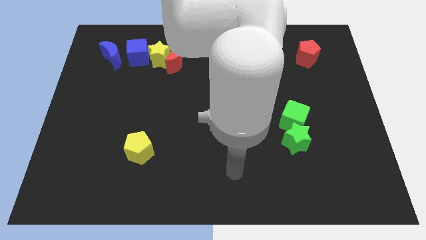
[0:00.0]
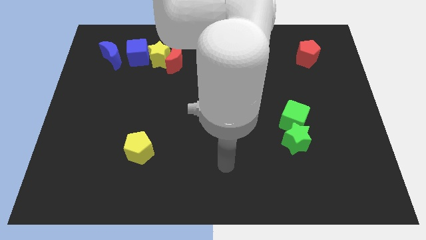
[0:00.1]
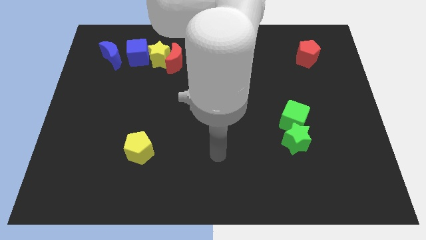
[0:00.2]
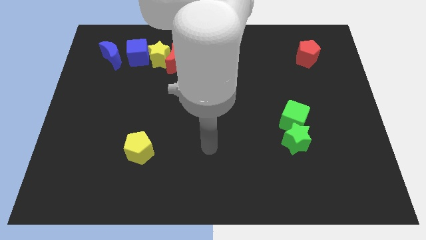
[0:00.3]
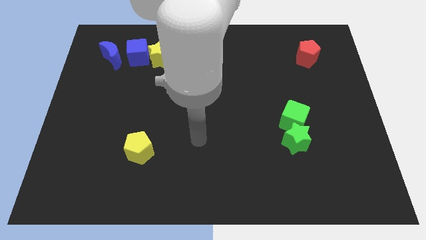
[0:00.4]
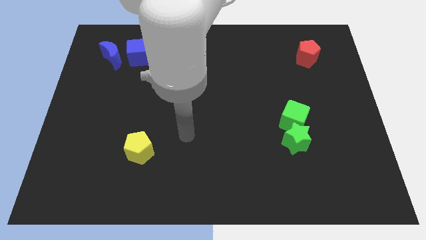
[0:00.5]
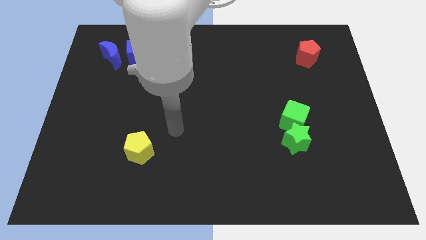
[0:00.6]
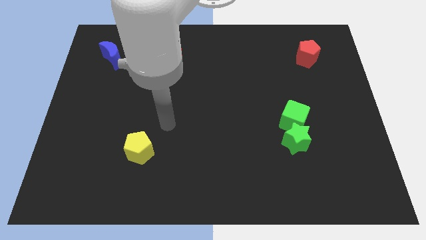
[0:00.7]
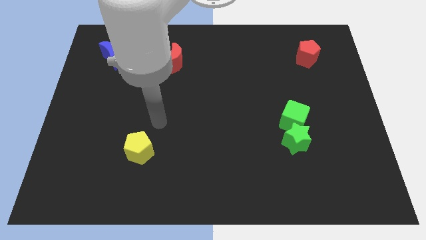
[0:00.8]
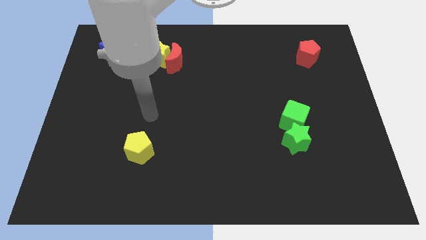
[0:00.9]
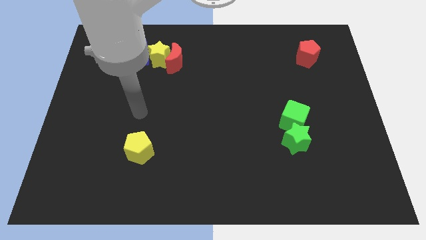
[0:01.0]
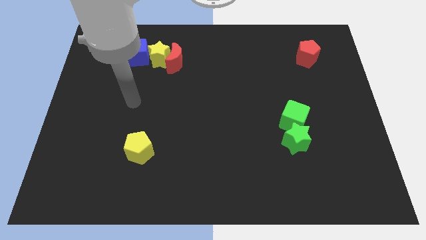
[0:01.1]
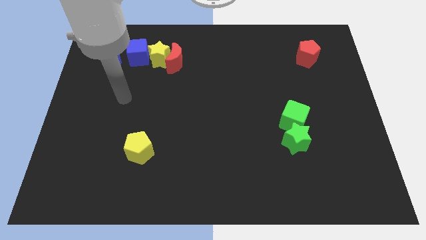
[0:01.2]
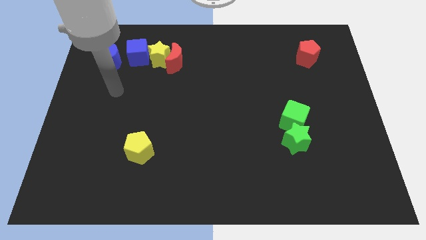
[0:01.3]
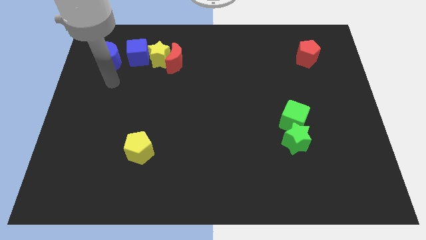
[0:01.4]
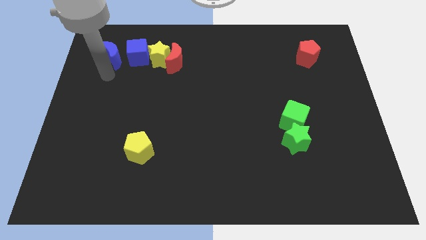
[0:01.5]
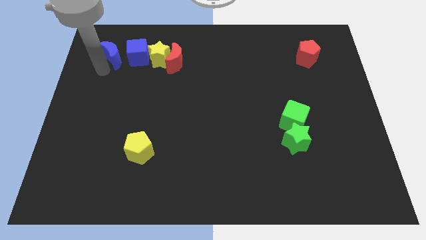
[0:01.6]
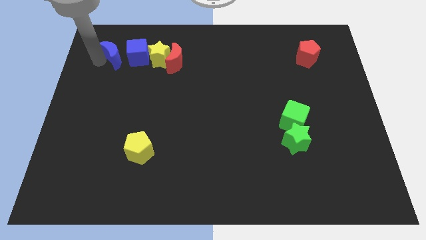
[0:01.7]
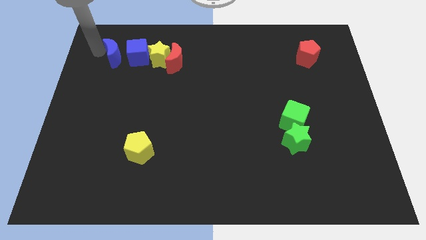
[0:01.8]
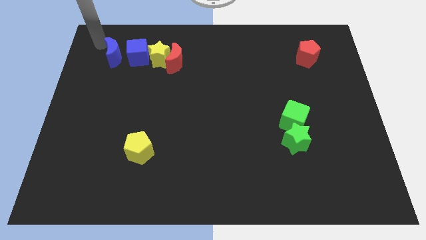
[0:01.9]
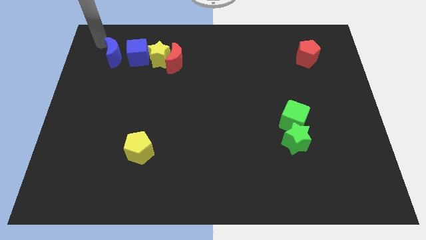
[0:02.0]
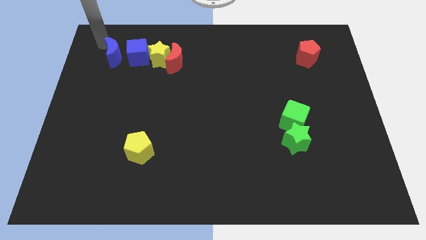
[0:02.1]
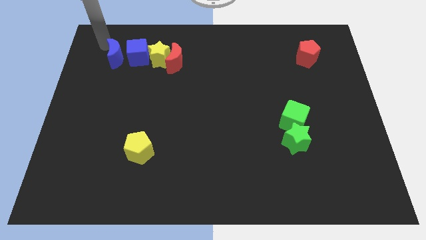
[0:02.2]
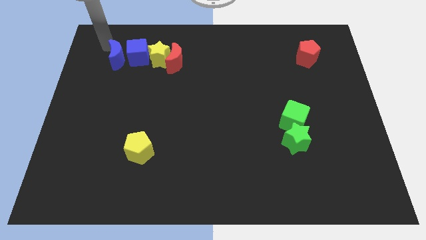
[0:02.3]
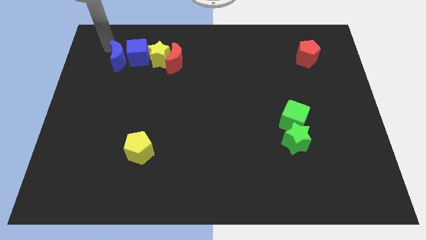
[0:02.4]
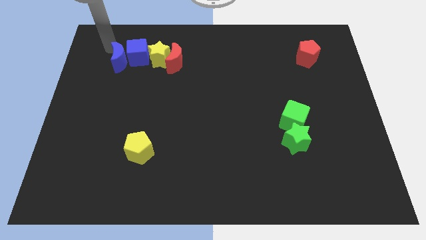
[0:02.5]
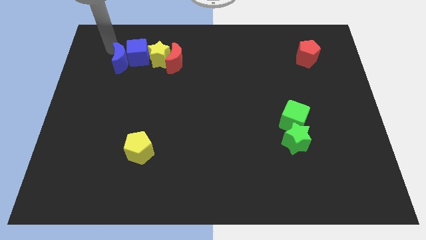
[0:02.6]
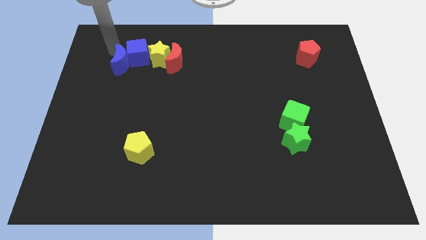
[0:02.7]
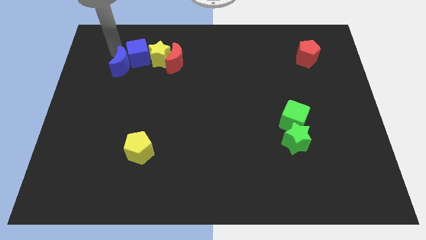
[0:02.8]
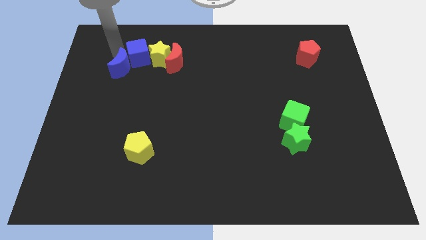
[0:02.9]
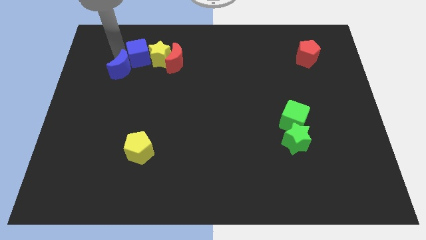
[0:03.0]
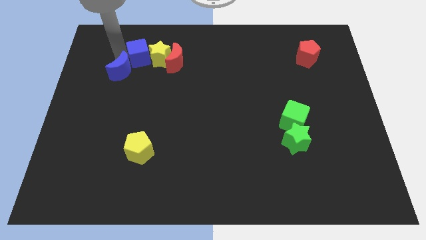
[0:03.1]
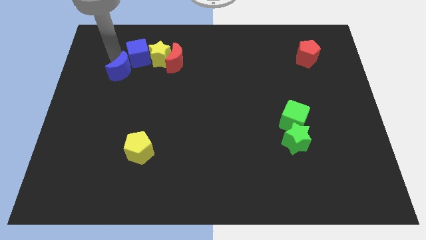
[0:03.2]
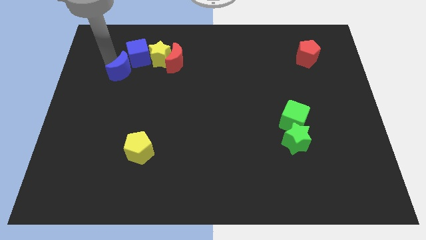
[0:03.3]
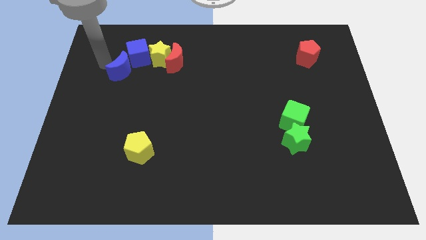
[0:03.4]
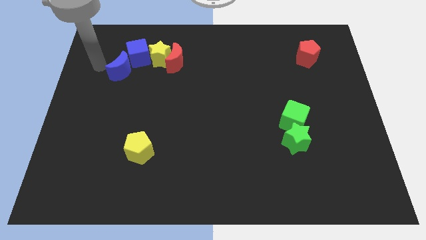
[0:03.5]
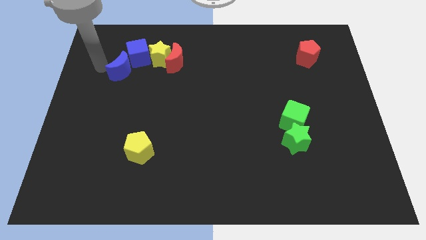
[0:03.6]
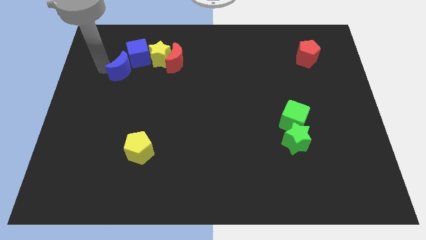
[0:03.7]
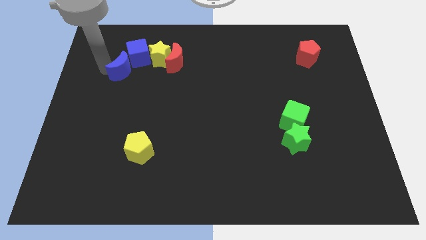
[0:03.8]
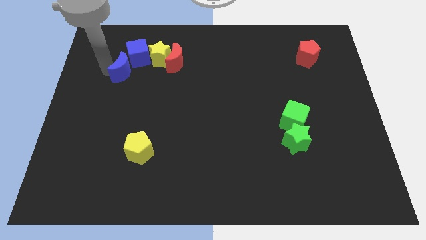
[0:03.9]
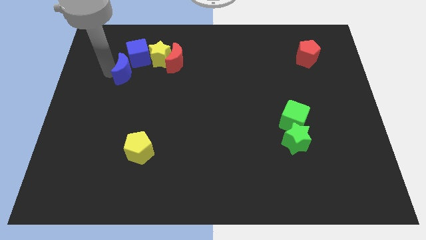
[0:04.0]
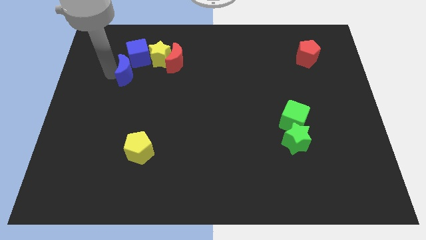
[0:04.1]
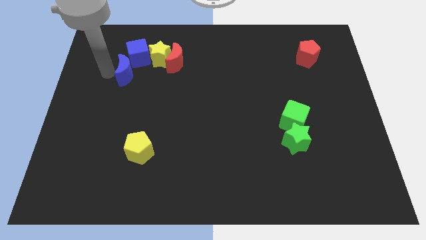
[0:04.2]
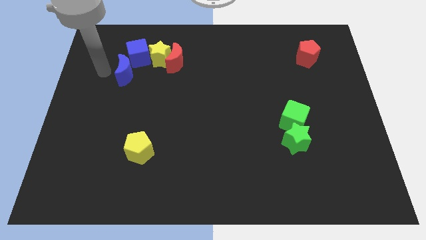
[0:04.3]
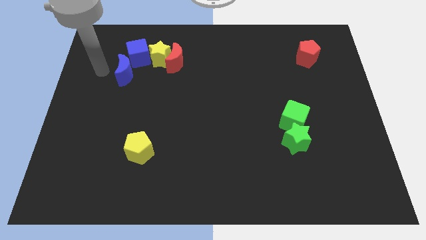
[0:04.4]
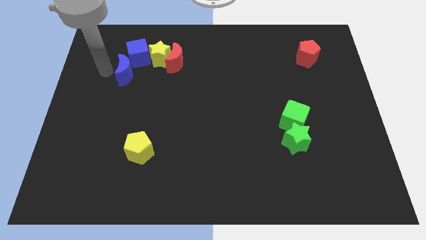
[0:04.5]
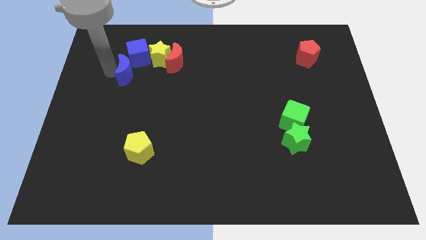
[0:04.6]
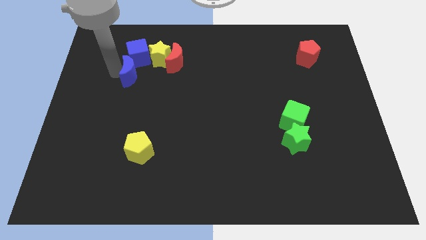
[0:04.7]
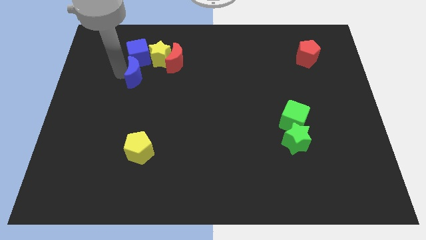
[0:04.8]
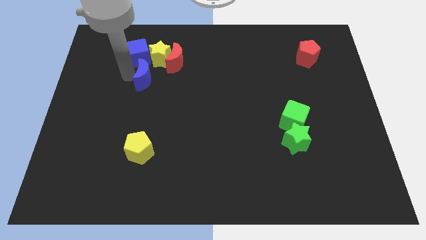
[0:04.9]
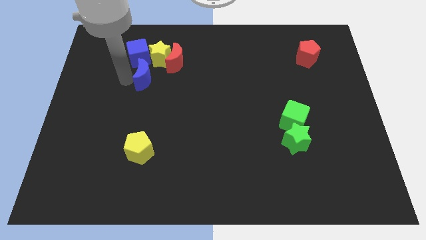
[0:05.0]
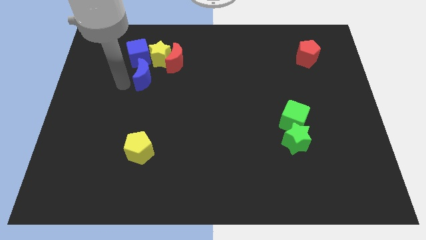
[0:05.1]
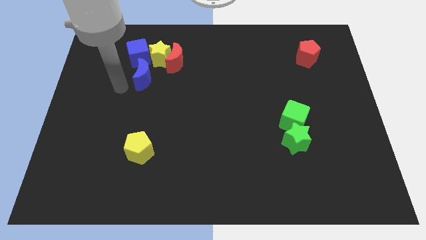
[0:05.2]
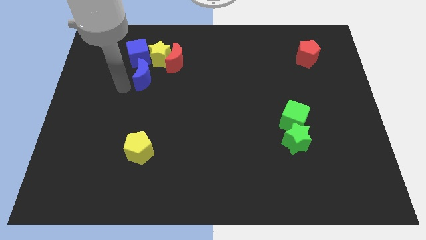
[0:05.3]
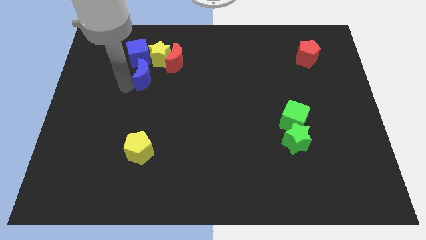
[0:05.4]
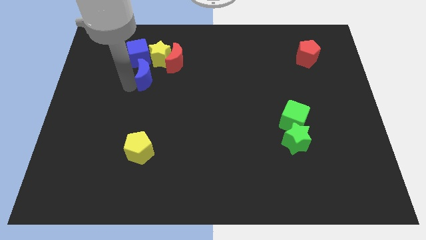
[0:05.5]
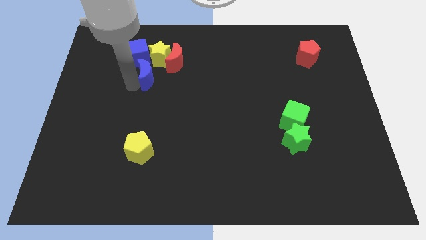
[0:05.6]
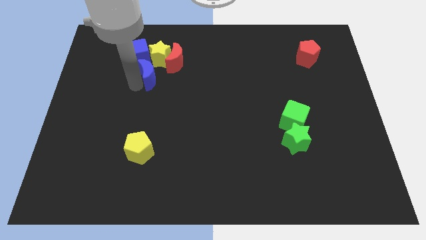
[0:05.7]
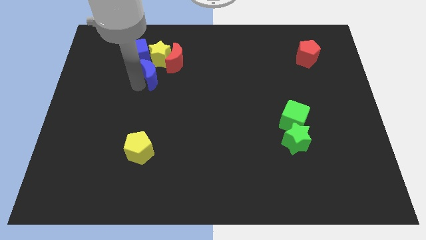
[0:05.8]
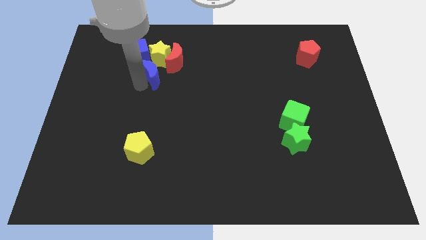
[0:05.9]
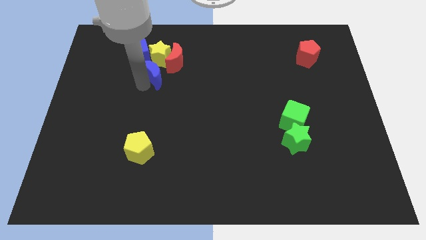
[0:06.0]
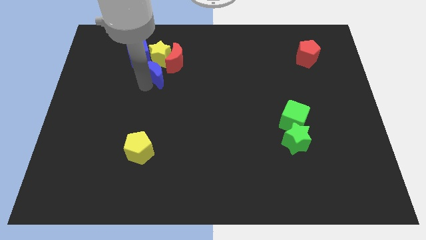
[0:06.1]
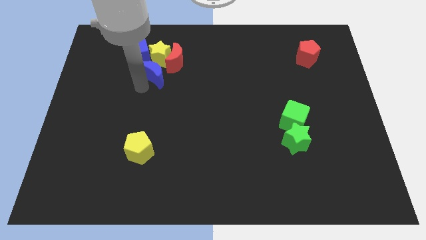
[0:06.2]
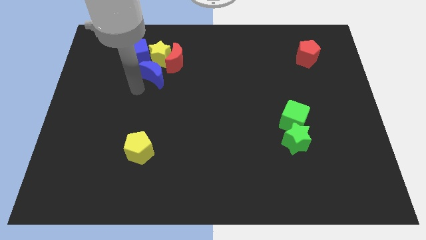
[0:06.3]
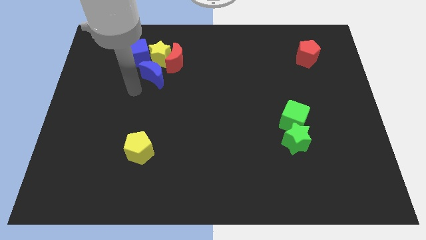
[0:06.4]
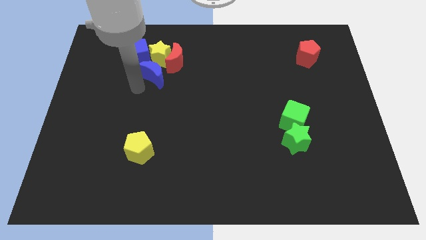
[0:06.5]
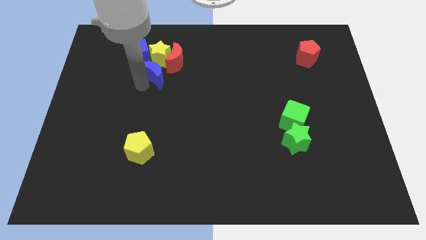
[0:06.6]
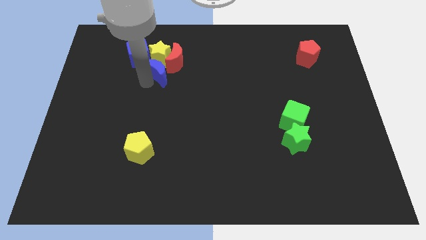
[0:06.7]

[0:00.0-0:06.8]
push the blue moon next to the red moon

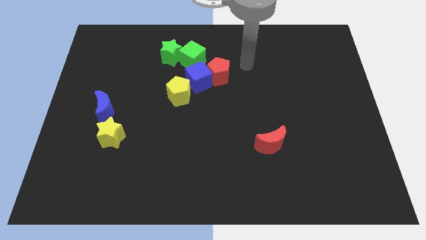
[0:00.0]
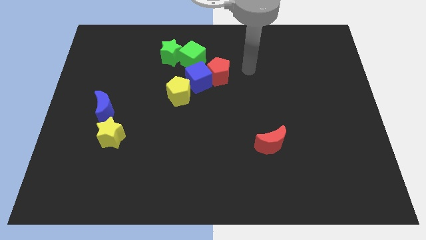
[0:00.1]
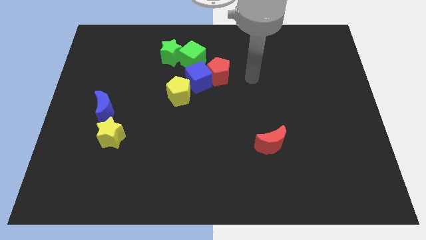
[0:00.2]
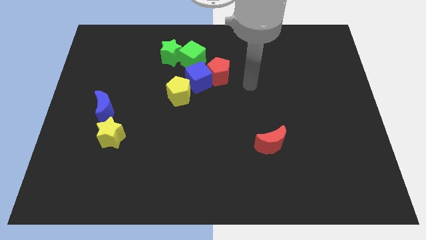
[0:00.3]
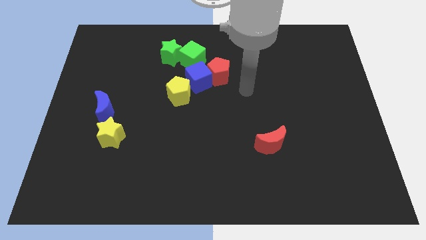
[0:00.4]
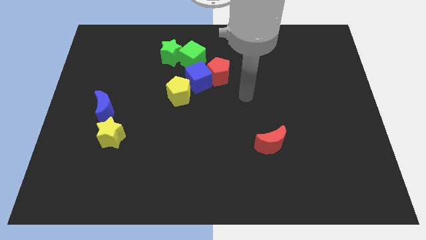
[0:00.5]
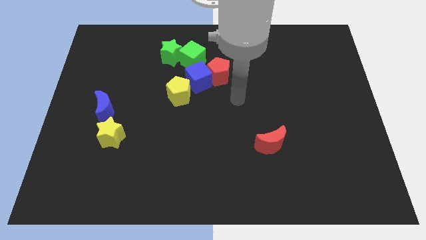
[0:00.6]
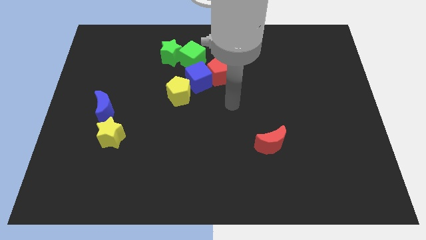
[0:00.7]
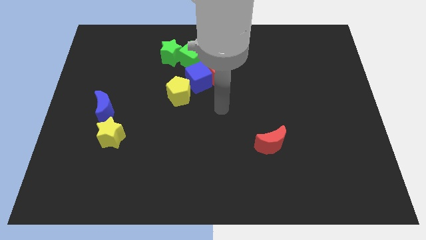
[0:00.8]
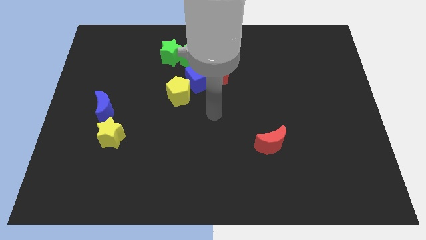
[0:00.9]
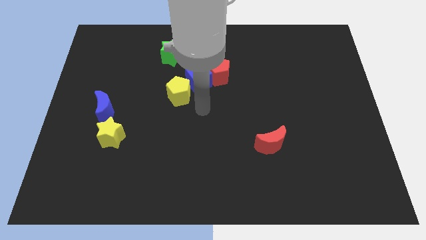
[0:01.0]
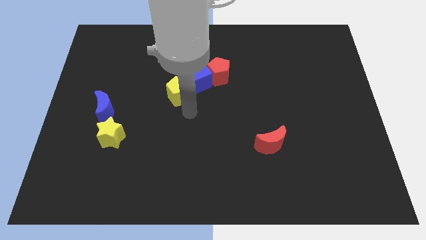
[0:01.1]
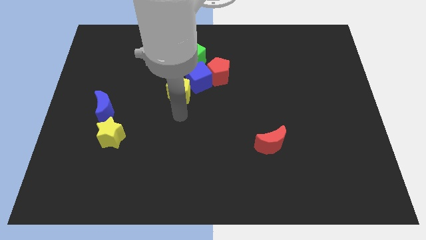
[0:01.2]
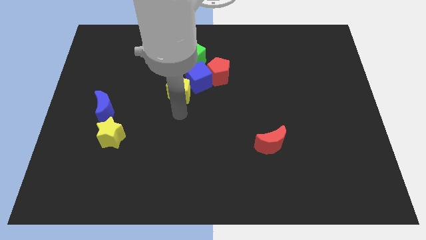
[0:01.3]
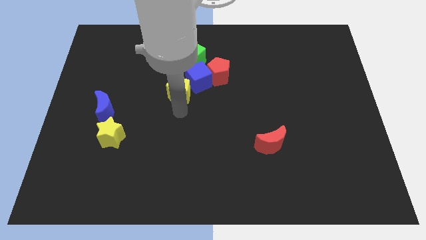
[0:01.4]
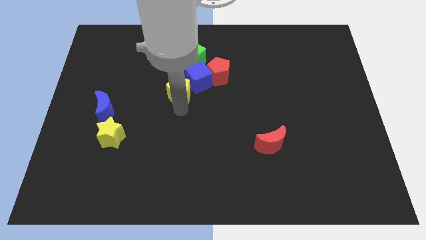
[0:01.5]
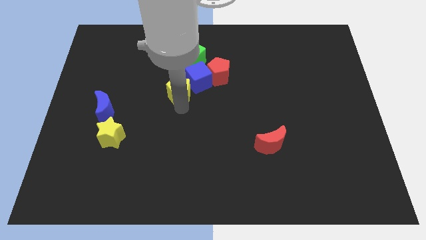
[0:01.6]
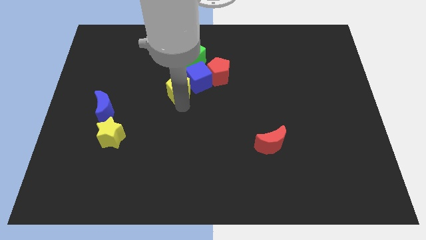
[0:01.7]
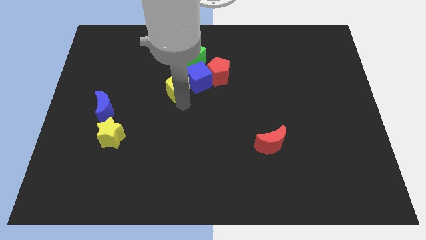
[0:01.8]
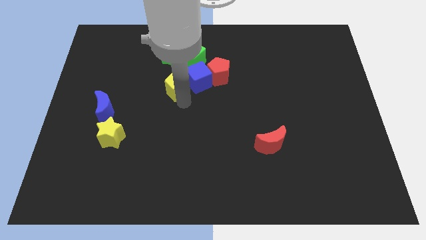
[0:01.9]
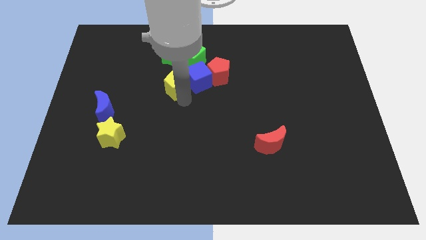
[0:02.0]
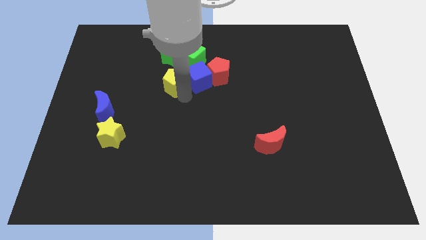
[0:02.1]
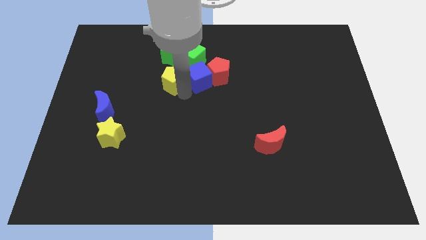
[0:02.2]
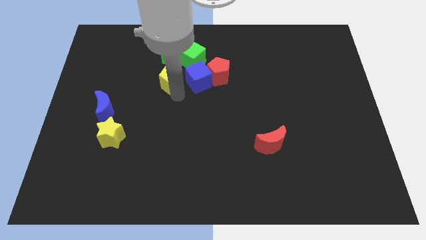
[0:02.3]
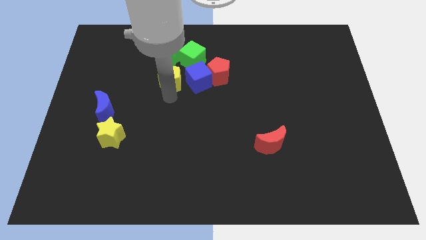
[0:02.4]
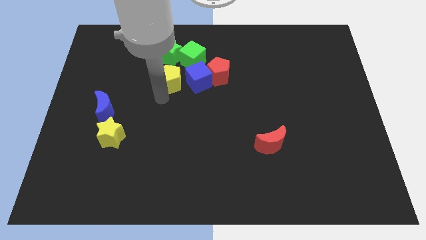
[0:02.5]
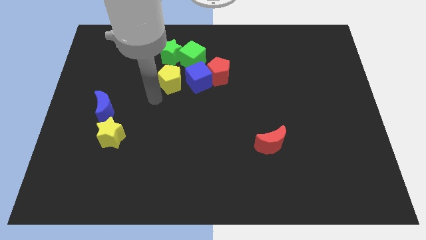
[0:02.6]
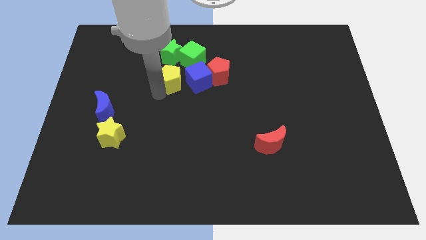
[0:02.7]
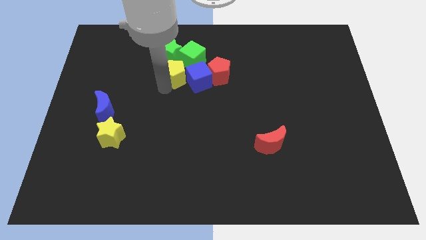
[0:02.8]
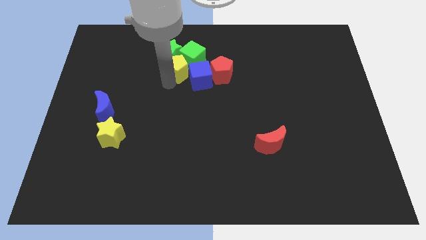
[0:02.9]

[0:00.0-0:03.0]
slide the yellow pentagon towards the green cube
